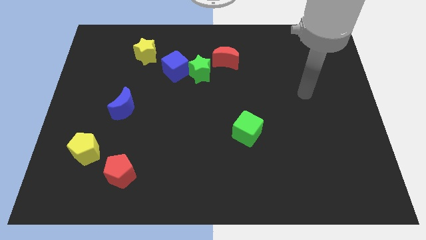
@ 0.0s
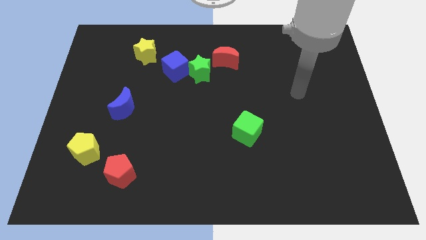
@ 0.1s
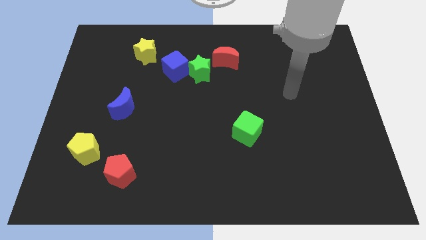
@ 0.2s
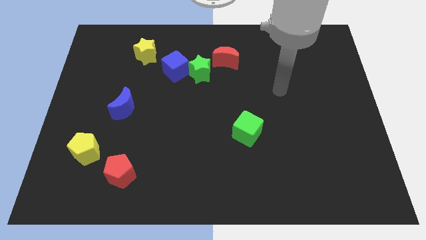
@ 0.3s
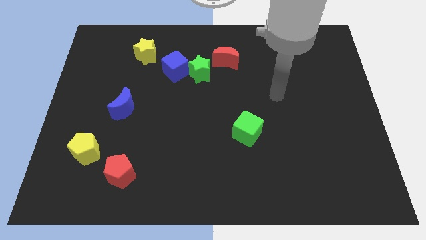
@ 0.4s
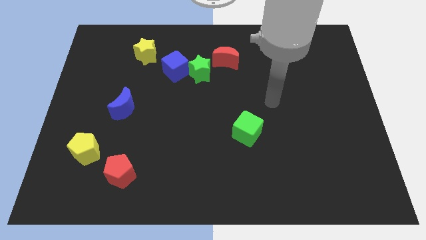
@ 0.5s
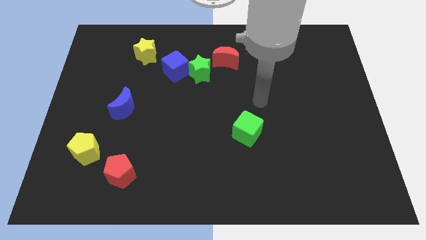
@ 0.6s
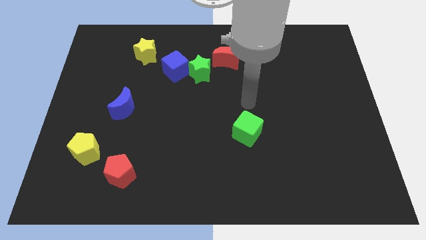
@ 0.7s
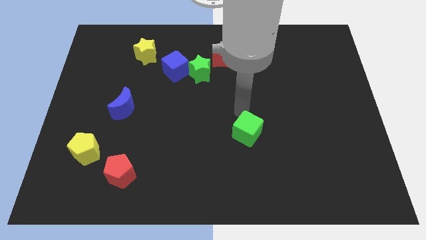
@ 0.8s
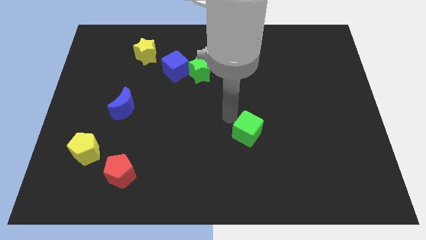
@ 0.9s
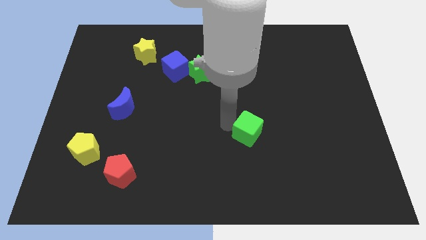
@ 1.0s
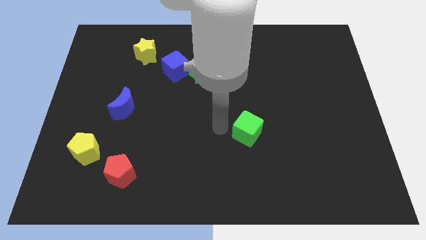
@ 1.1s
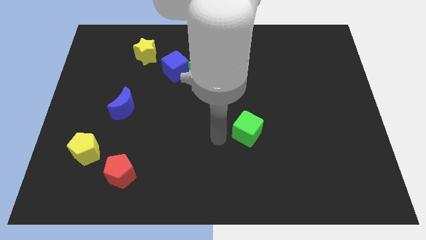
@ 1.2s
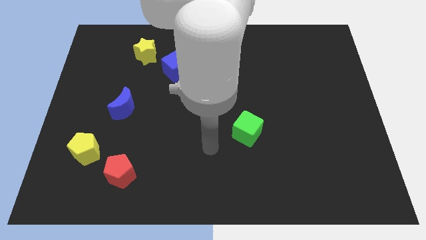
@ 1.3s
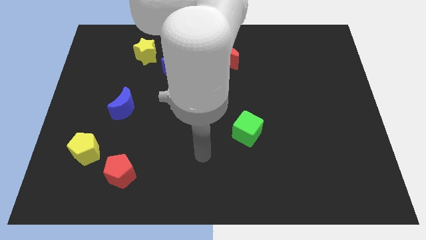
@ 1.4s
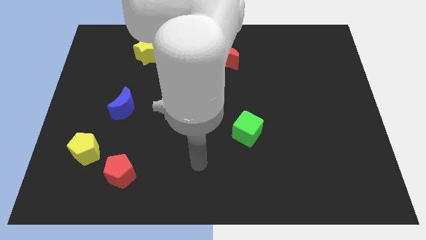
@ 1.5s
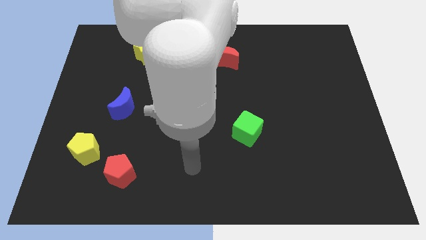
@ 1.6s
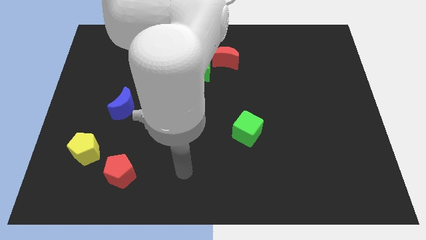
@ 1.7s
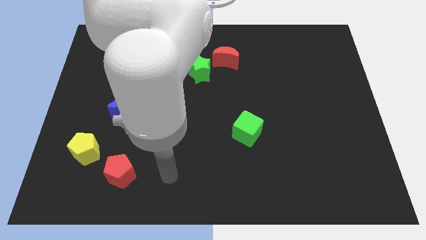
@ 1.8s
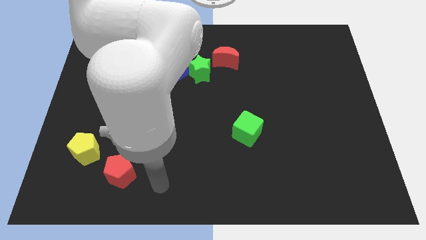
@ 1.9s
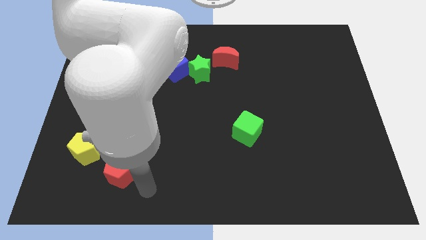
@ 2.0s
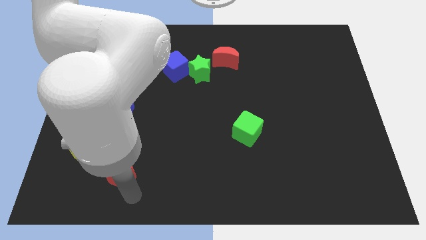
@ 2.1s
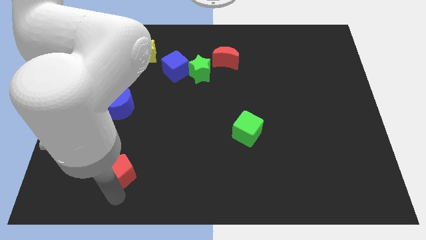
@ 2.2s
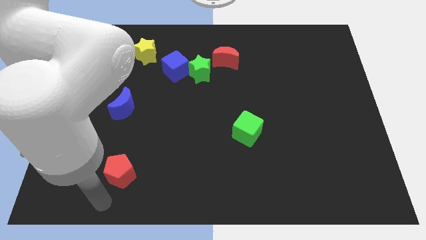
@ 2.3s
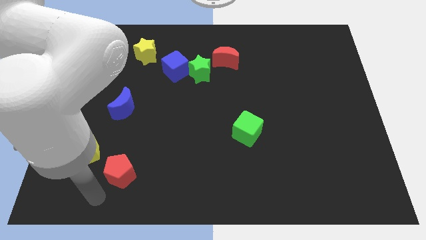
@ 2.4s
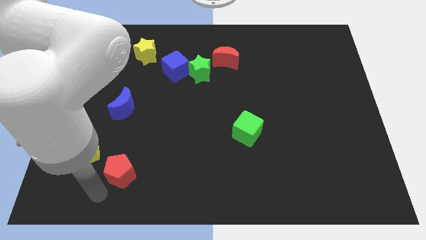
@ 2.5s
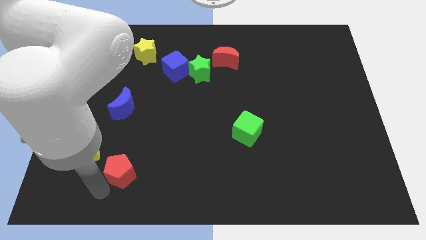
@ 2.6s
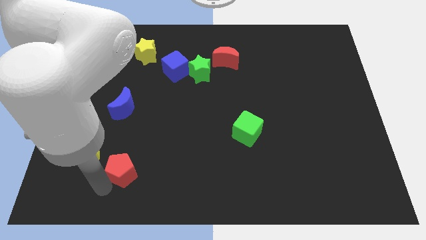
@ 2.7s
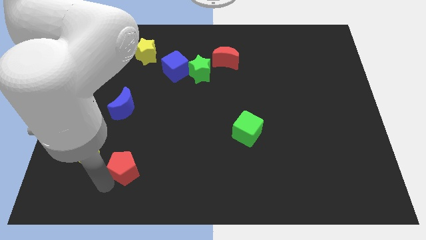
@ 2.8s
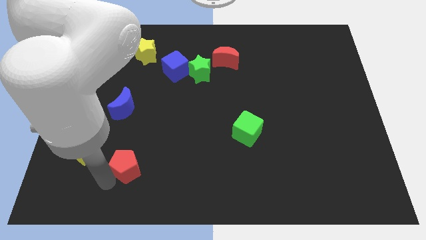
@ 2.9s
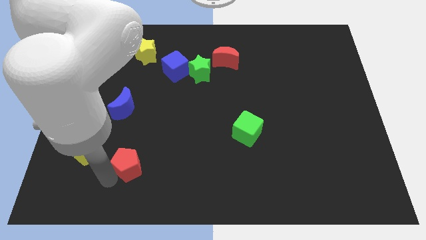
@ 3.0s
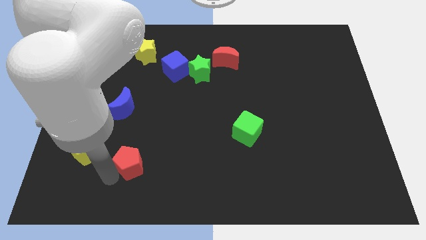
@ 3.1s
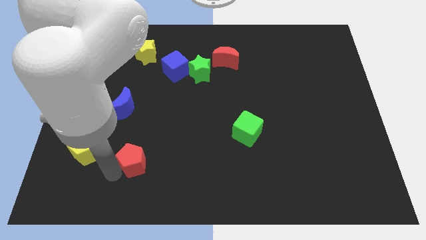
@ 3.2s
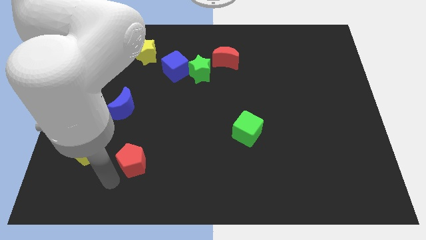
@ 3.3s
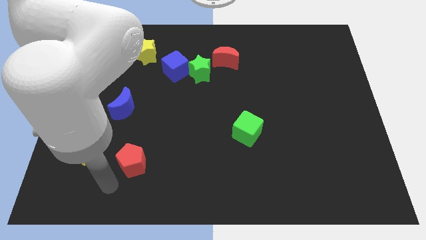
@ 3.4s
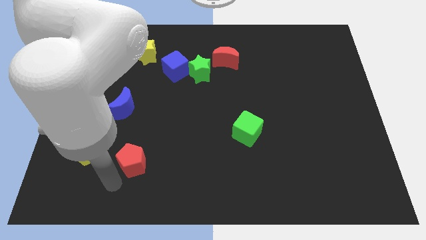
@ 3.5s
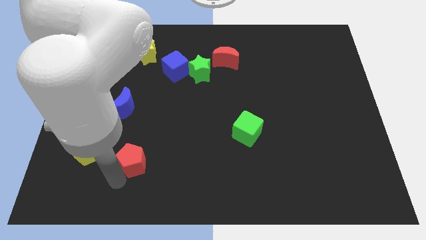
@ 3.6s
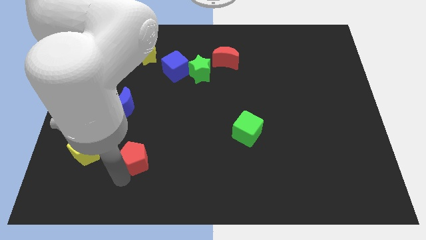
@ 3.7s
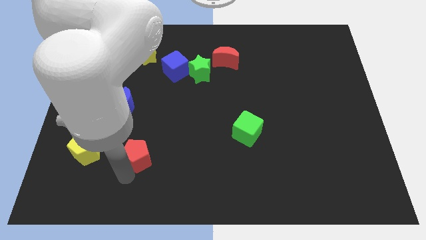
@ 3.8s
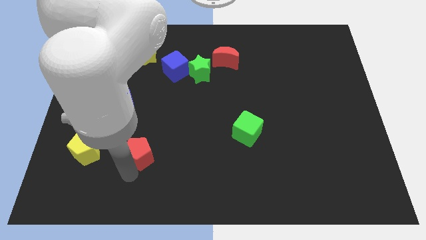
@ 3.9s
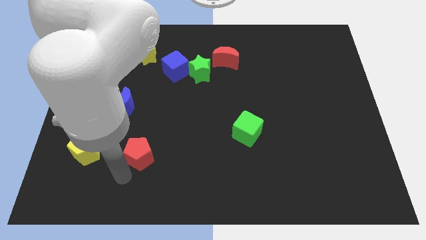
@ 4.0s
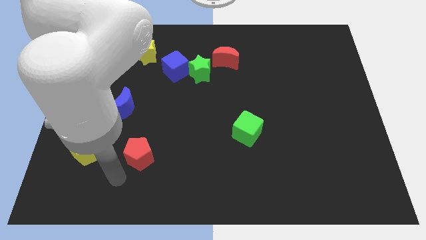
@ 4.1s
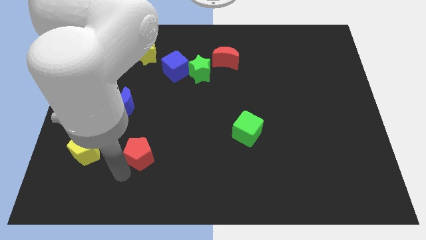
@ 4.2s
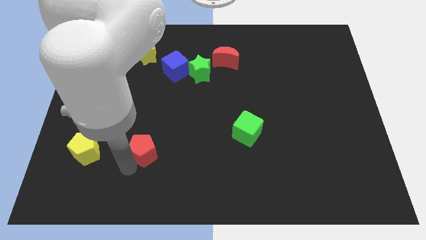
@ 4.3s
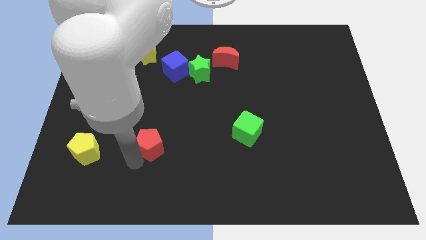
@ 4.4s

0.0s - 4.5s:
move the red pentagon upwards and to the right a bit

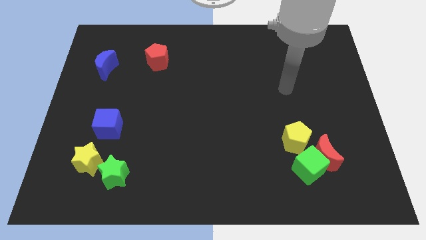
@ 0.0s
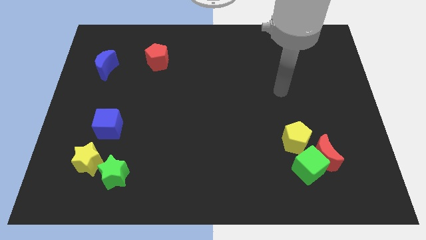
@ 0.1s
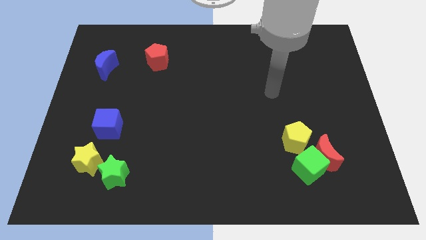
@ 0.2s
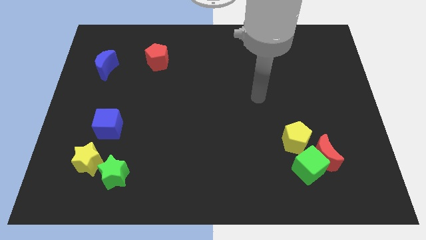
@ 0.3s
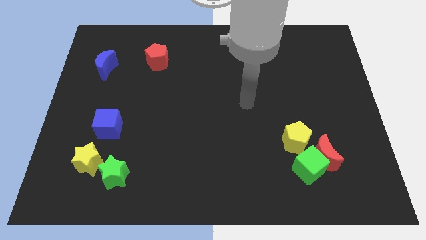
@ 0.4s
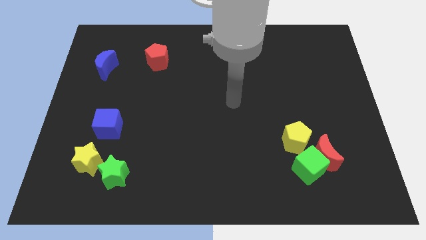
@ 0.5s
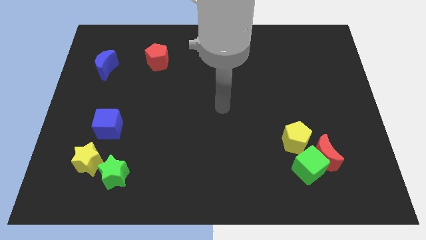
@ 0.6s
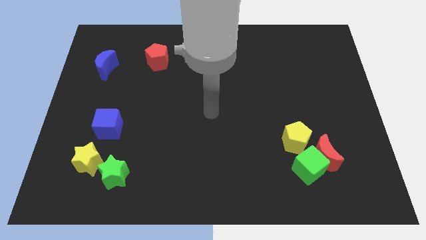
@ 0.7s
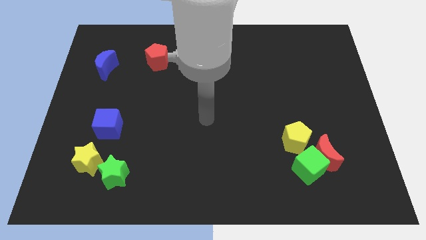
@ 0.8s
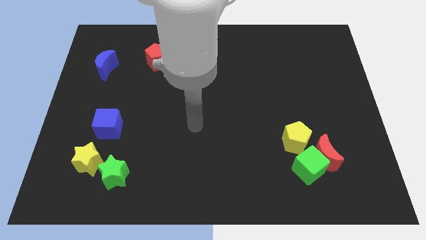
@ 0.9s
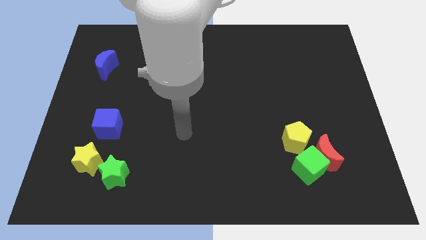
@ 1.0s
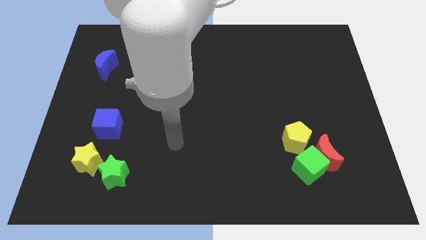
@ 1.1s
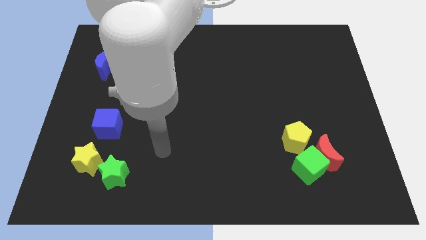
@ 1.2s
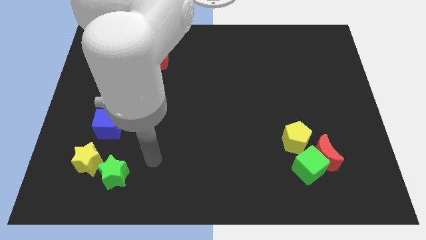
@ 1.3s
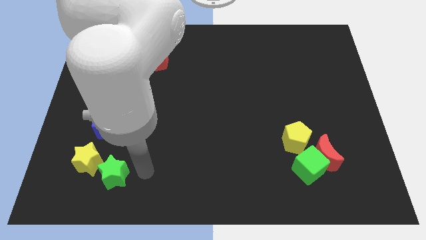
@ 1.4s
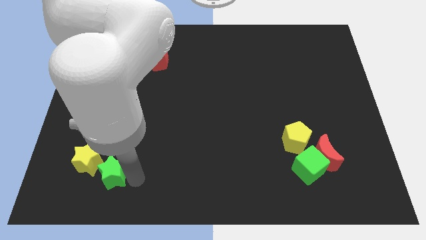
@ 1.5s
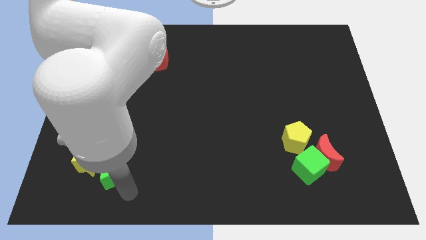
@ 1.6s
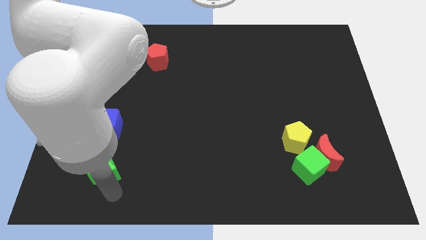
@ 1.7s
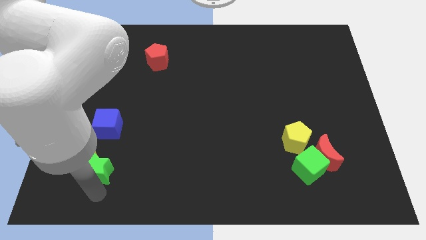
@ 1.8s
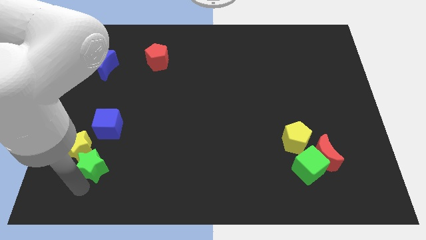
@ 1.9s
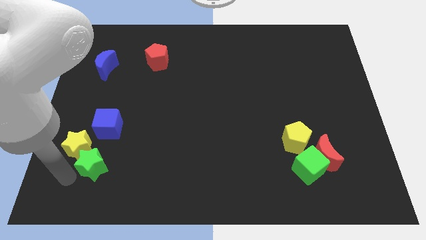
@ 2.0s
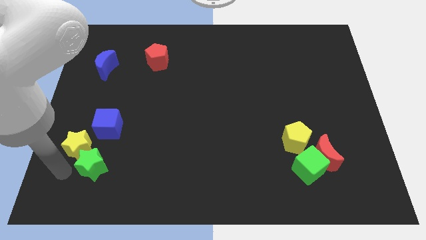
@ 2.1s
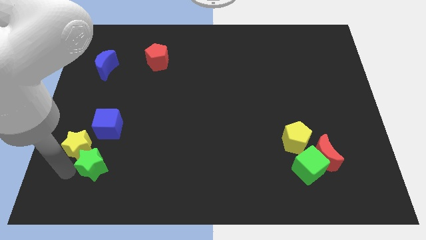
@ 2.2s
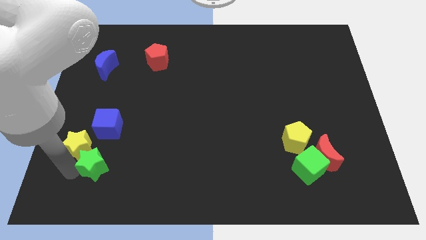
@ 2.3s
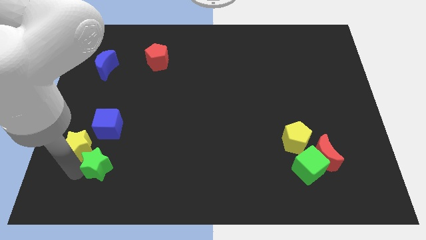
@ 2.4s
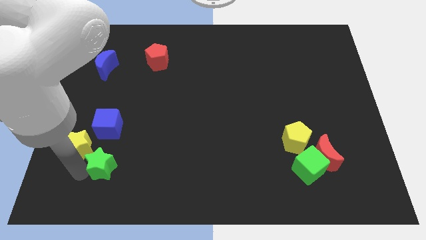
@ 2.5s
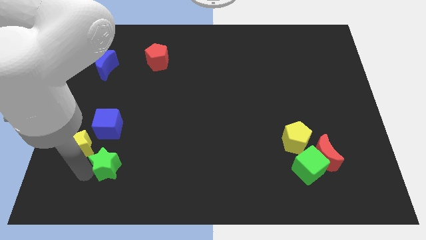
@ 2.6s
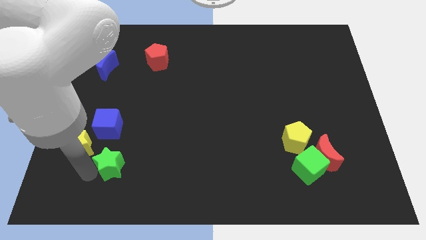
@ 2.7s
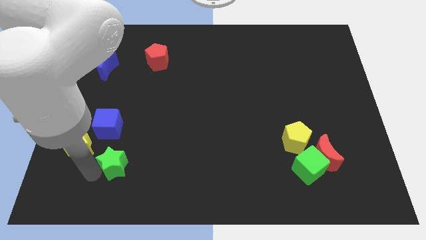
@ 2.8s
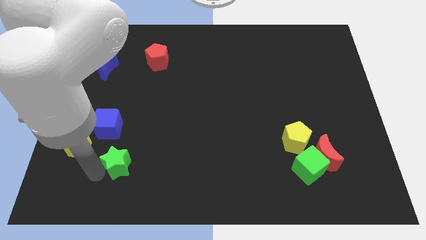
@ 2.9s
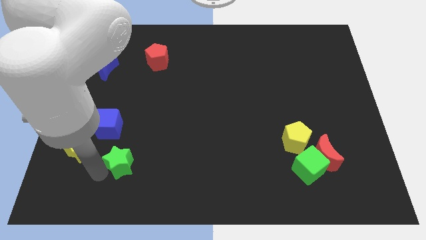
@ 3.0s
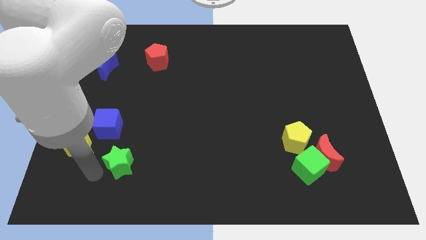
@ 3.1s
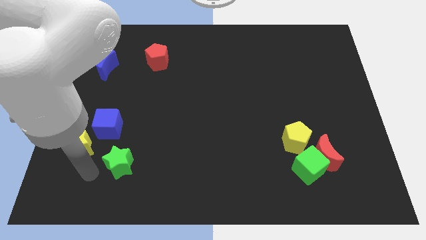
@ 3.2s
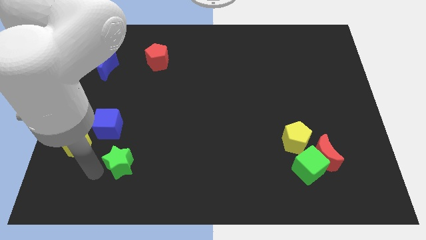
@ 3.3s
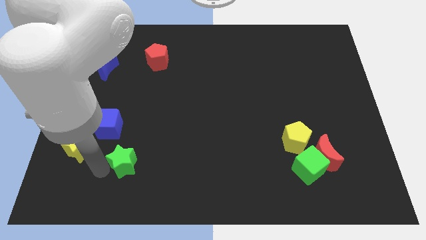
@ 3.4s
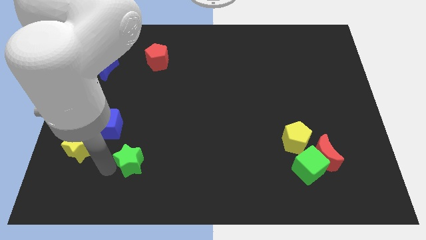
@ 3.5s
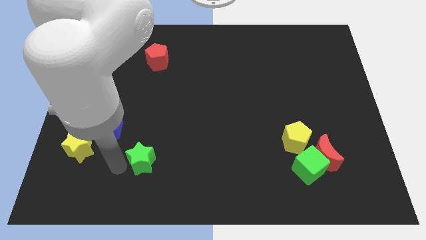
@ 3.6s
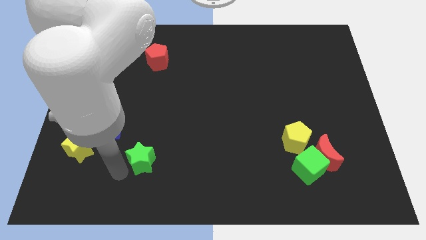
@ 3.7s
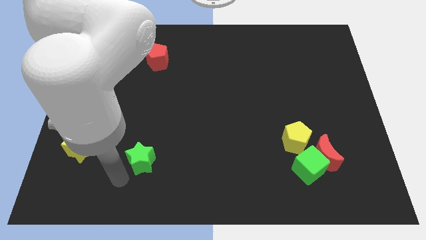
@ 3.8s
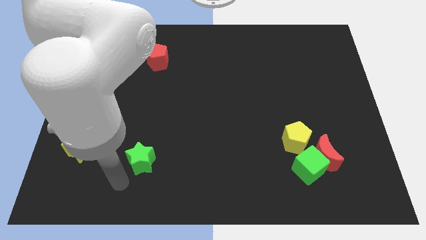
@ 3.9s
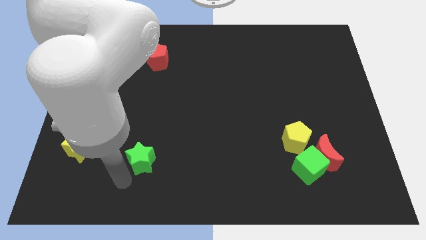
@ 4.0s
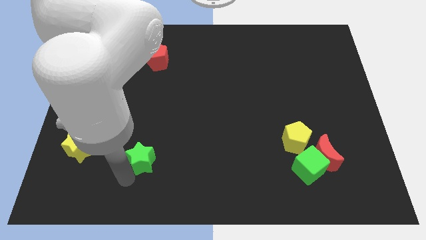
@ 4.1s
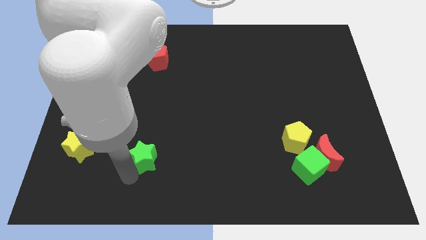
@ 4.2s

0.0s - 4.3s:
move the green star up and to the right somewhat
